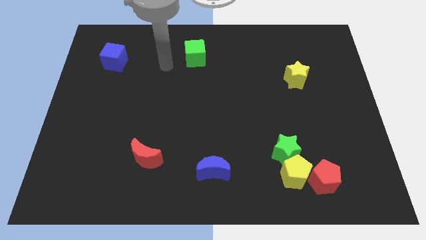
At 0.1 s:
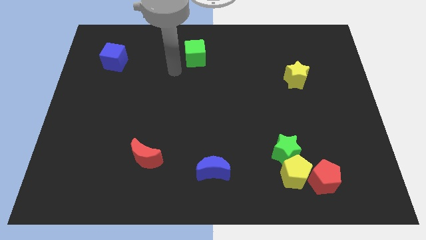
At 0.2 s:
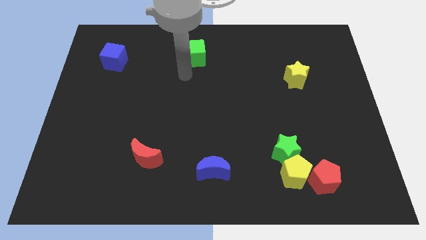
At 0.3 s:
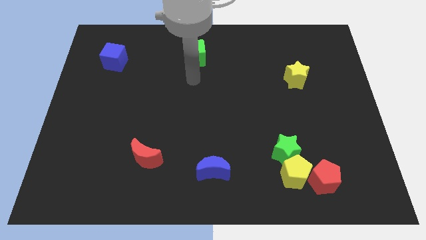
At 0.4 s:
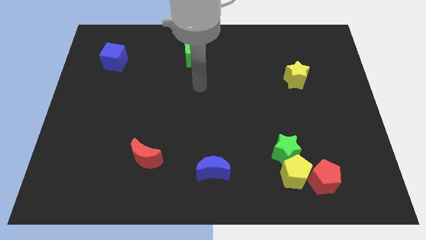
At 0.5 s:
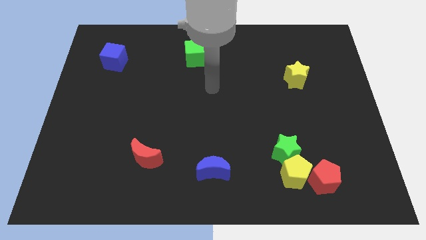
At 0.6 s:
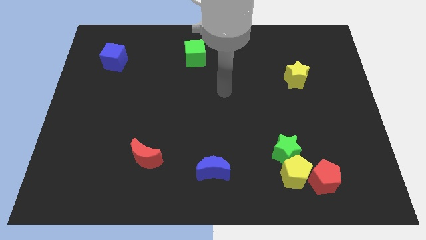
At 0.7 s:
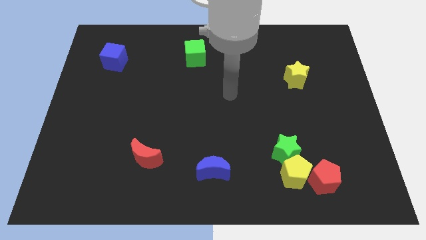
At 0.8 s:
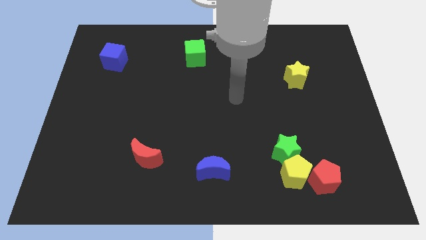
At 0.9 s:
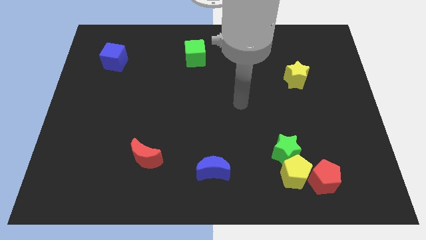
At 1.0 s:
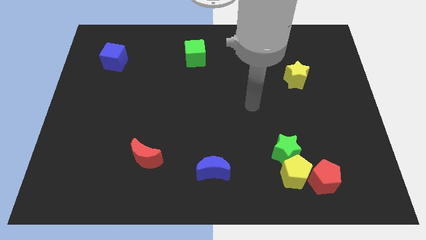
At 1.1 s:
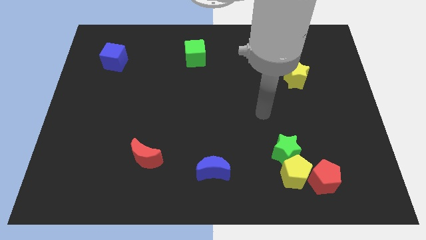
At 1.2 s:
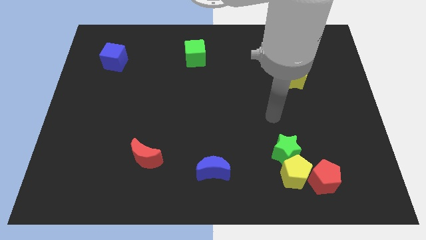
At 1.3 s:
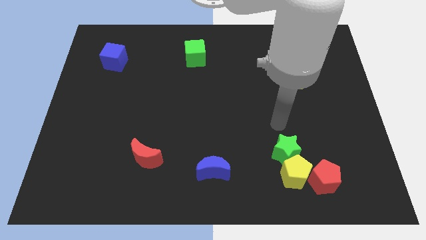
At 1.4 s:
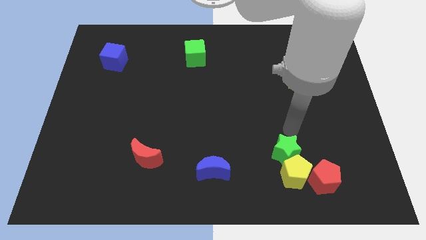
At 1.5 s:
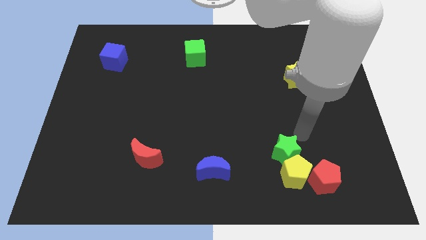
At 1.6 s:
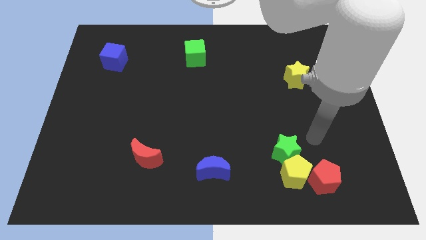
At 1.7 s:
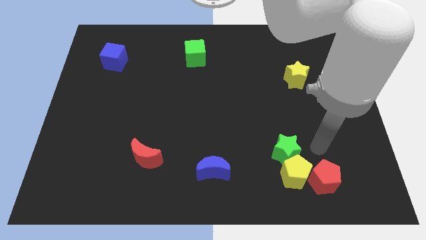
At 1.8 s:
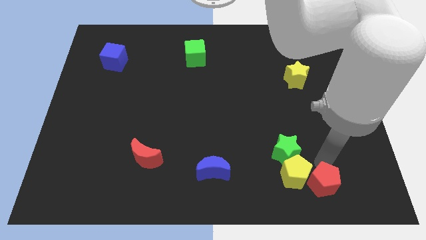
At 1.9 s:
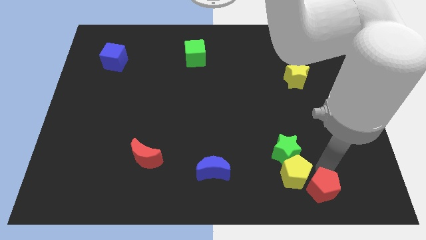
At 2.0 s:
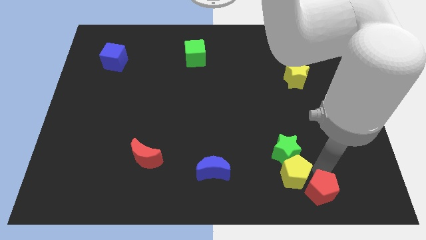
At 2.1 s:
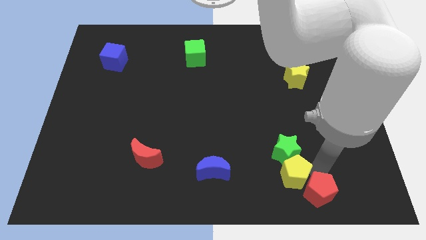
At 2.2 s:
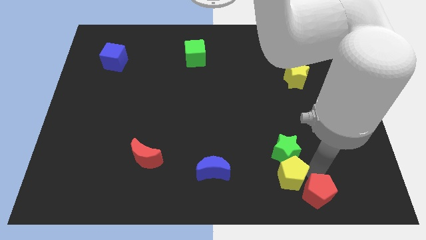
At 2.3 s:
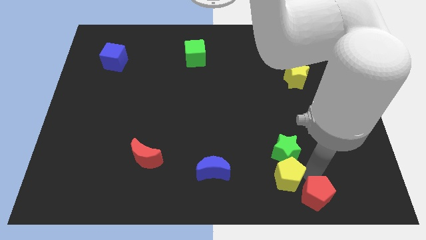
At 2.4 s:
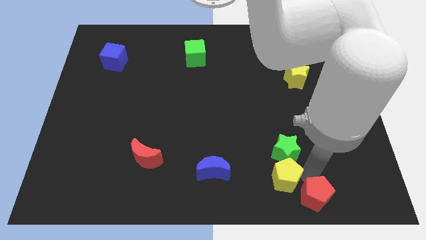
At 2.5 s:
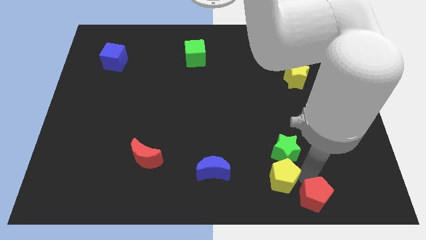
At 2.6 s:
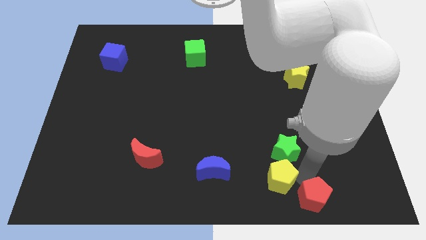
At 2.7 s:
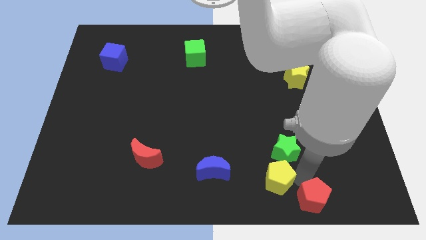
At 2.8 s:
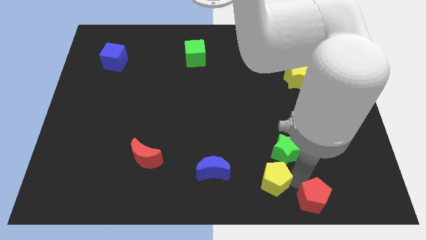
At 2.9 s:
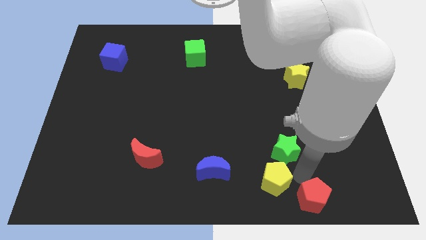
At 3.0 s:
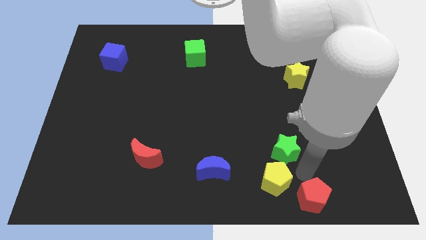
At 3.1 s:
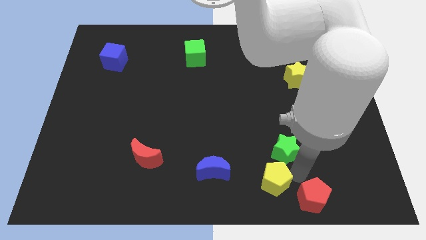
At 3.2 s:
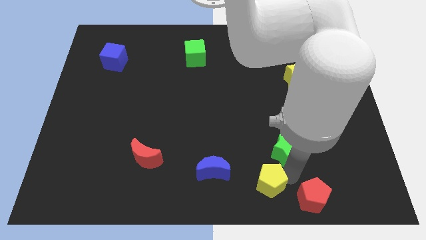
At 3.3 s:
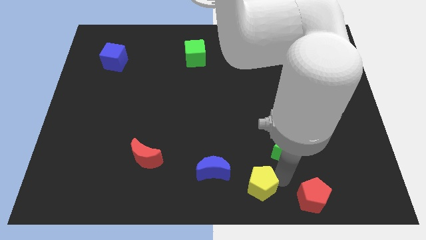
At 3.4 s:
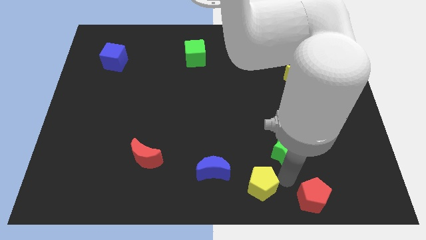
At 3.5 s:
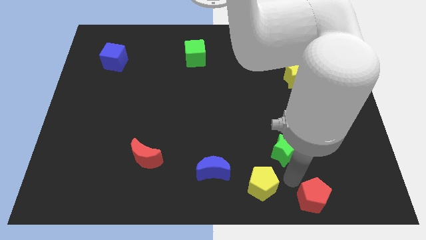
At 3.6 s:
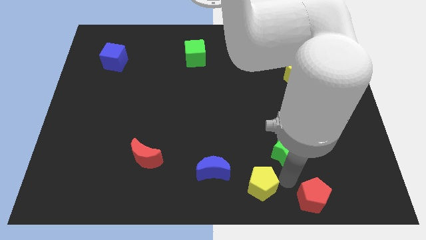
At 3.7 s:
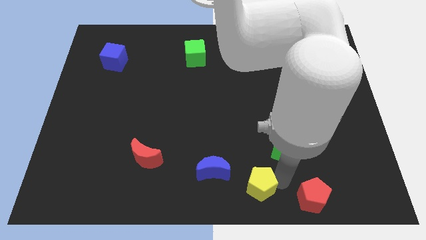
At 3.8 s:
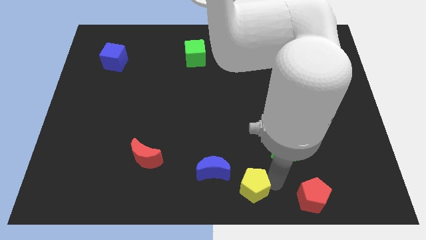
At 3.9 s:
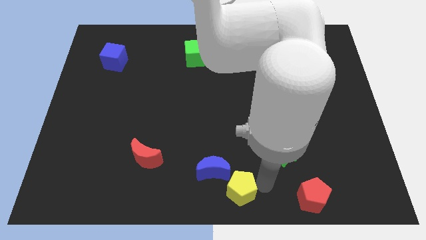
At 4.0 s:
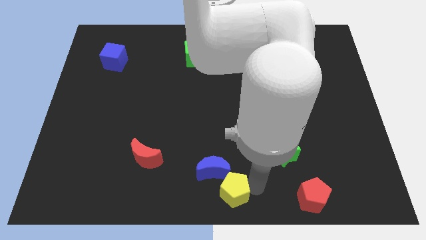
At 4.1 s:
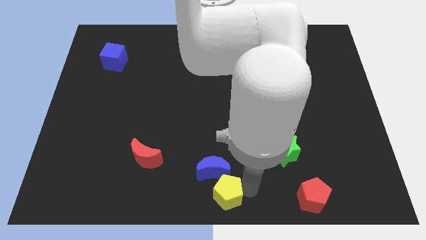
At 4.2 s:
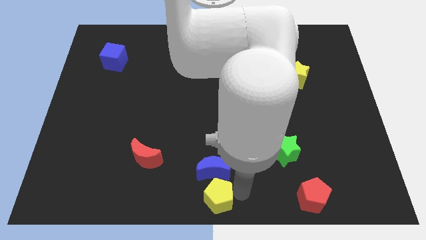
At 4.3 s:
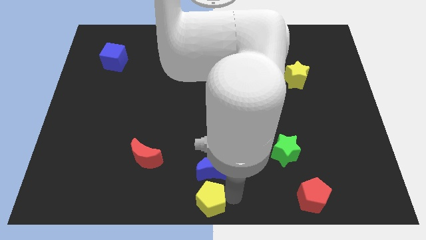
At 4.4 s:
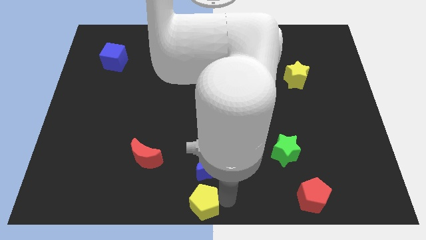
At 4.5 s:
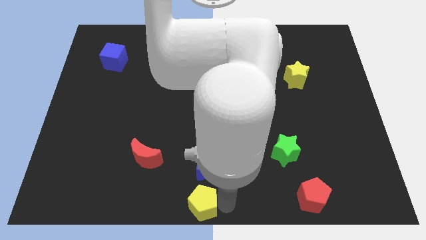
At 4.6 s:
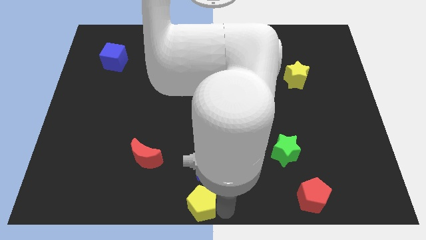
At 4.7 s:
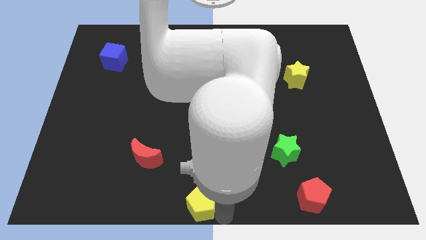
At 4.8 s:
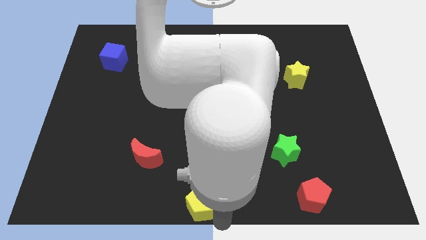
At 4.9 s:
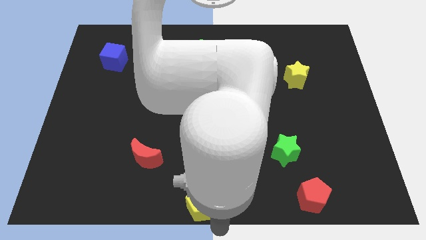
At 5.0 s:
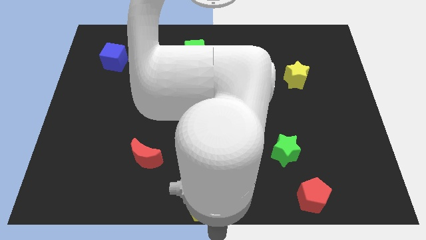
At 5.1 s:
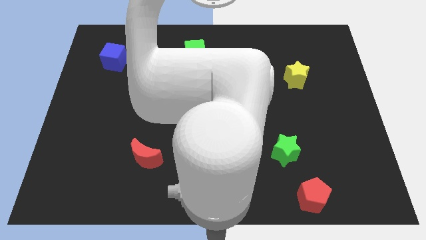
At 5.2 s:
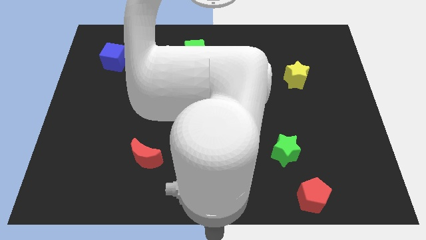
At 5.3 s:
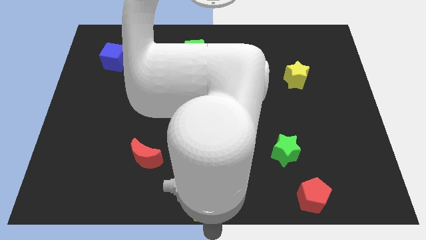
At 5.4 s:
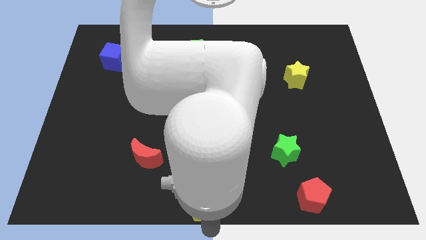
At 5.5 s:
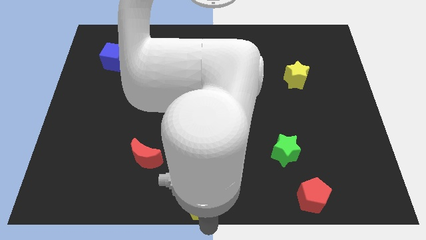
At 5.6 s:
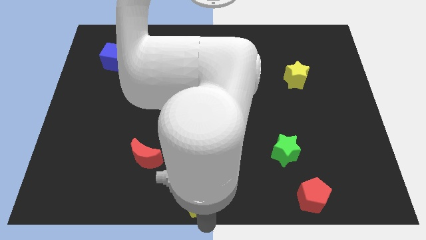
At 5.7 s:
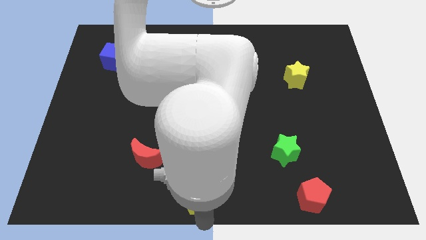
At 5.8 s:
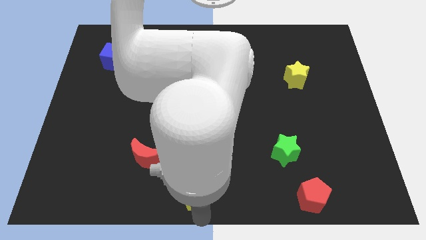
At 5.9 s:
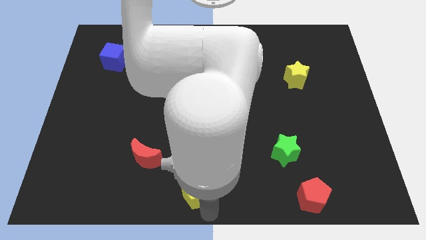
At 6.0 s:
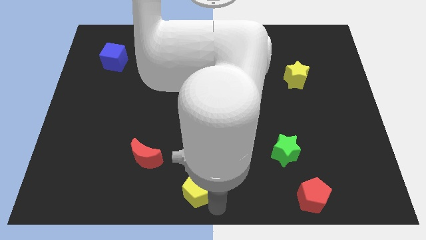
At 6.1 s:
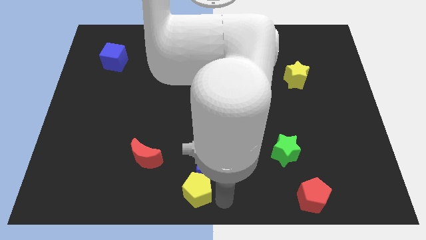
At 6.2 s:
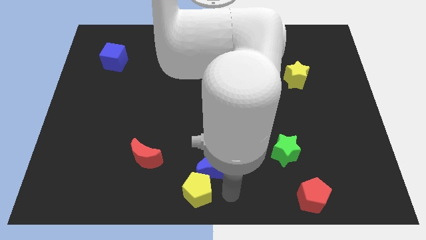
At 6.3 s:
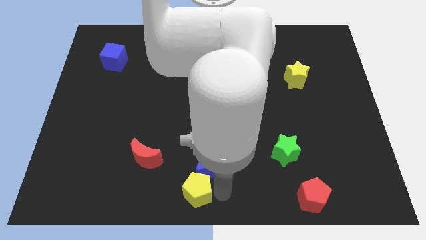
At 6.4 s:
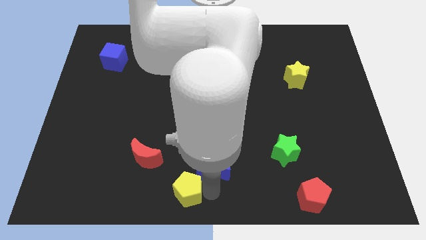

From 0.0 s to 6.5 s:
move the yellow pentagon to the left

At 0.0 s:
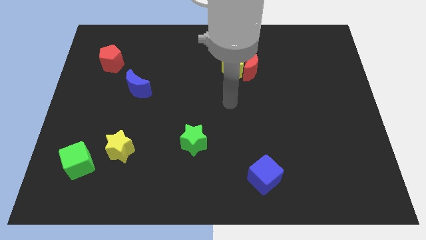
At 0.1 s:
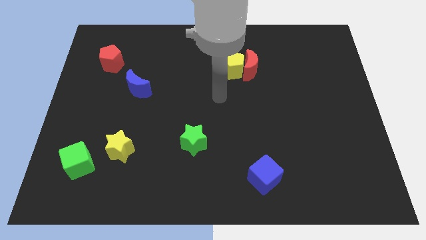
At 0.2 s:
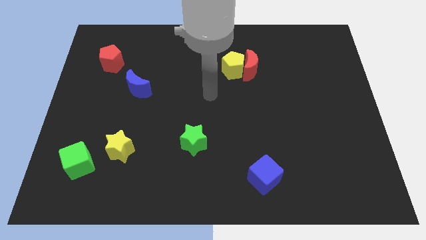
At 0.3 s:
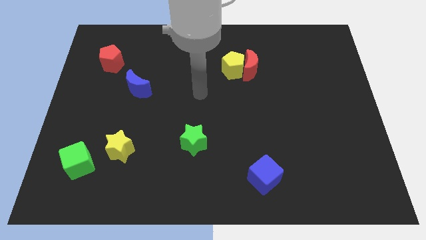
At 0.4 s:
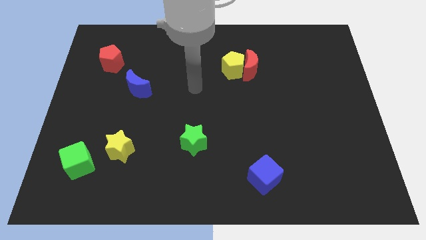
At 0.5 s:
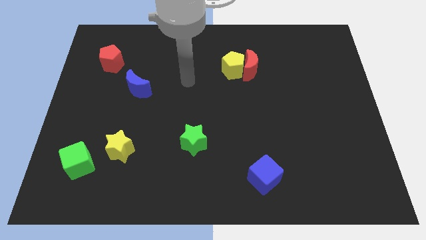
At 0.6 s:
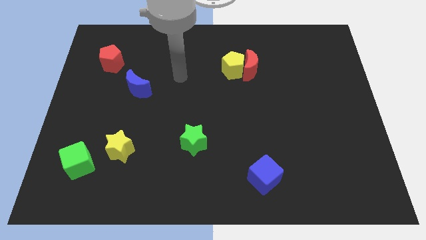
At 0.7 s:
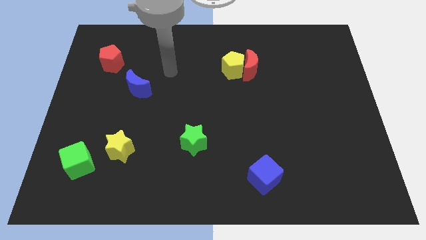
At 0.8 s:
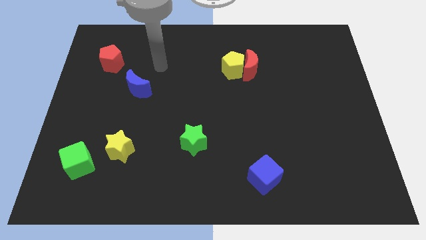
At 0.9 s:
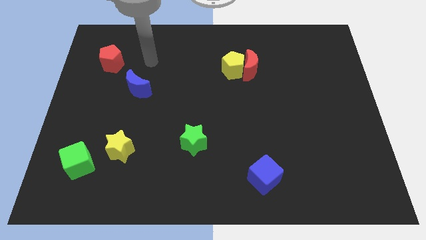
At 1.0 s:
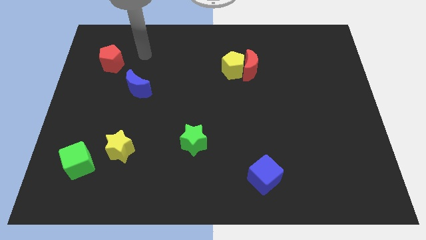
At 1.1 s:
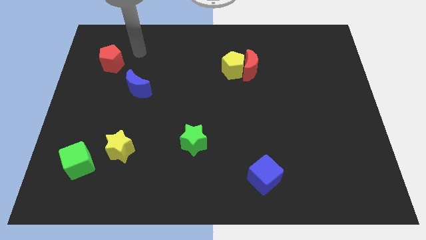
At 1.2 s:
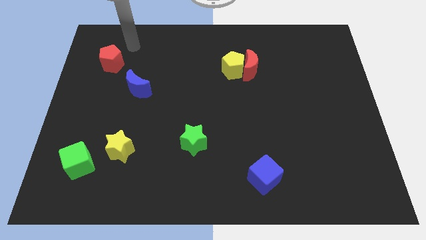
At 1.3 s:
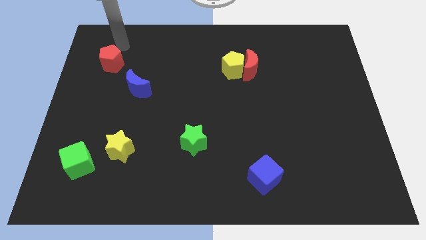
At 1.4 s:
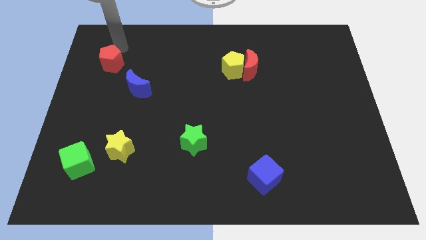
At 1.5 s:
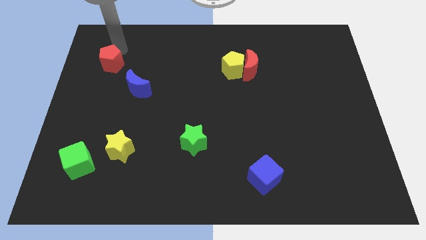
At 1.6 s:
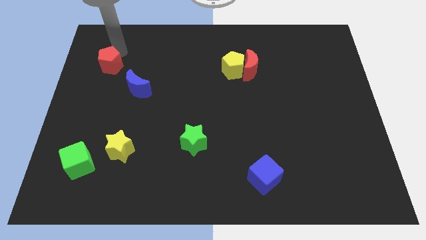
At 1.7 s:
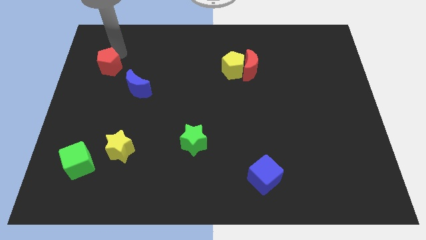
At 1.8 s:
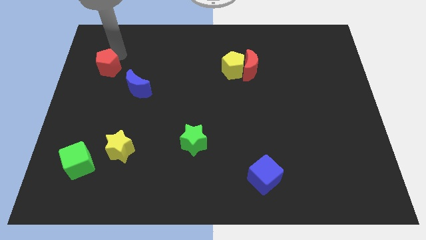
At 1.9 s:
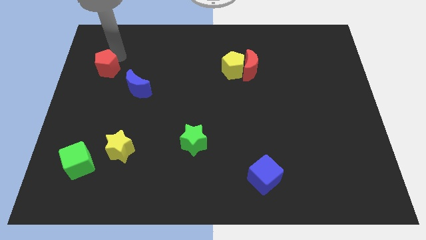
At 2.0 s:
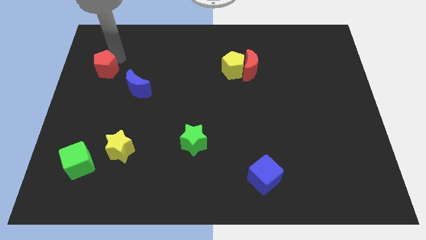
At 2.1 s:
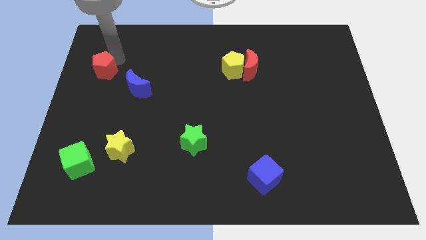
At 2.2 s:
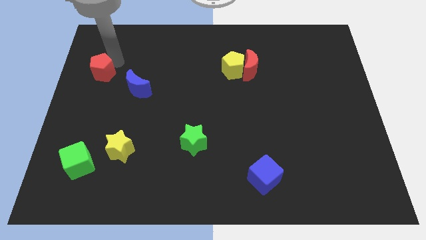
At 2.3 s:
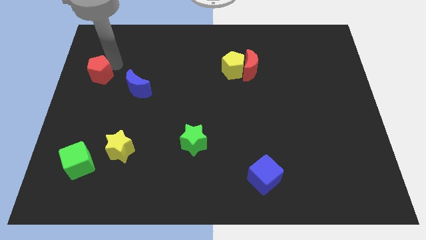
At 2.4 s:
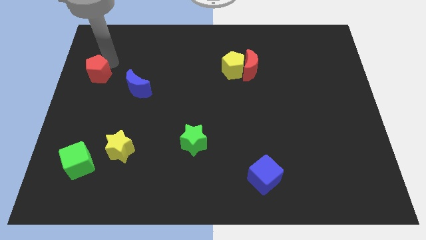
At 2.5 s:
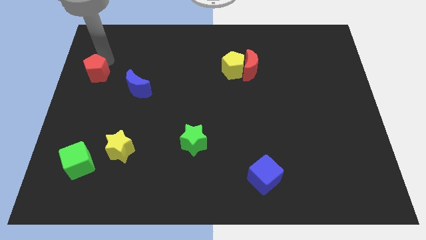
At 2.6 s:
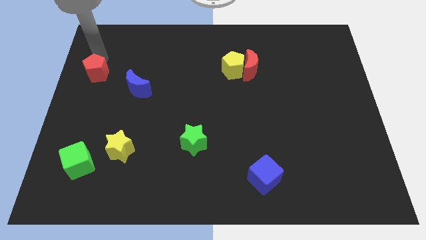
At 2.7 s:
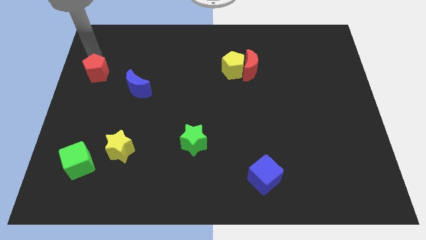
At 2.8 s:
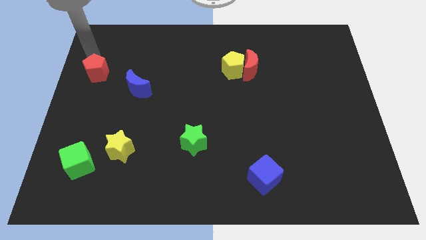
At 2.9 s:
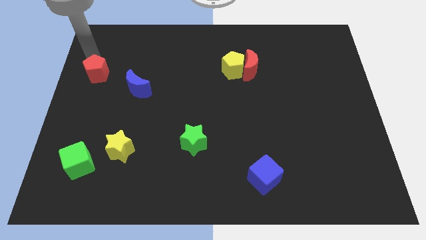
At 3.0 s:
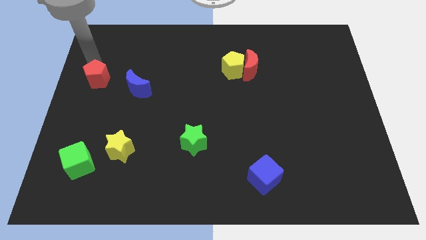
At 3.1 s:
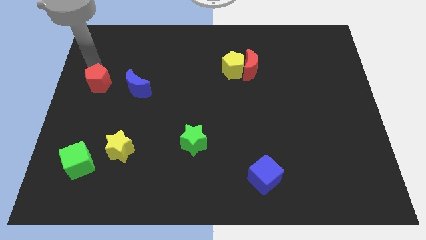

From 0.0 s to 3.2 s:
slightly push the red pentagon down
